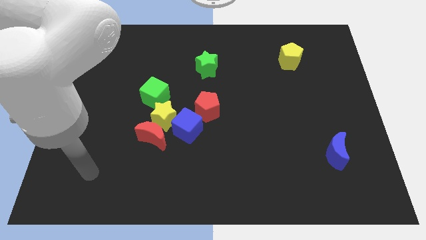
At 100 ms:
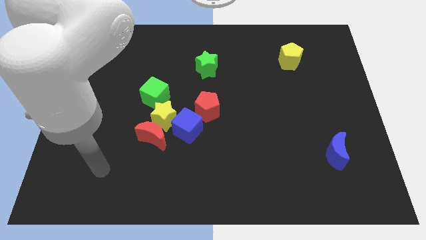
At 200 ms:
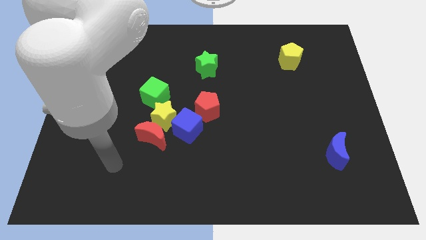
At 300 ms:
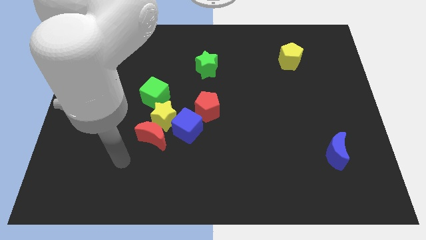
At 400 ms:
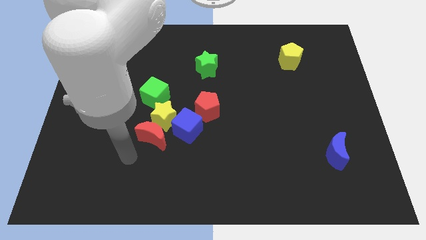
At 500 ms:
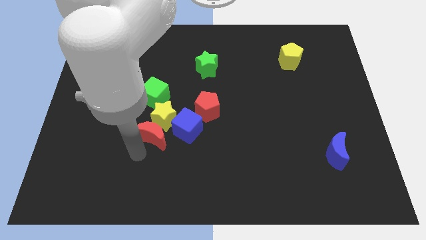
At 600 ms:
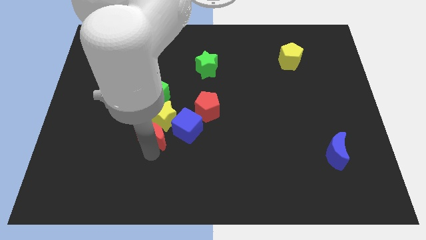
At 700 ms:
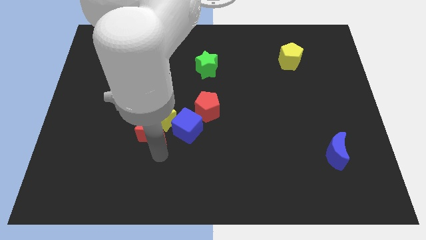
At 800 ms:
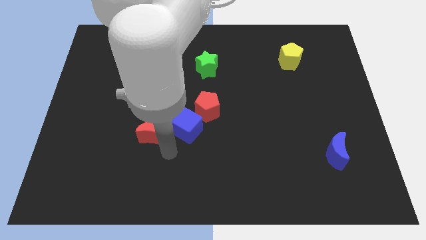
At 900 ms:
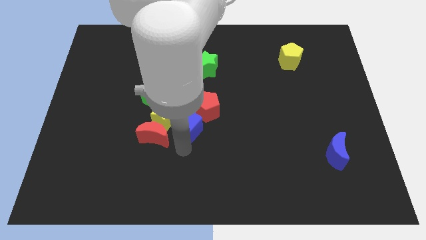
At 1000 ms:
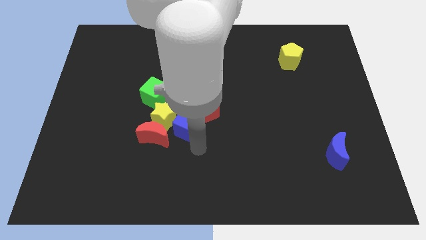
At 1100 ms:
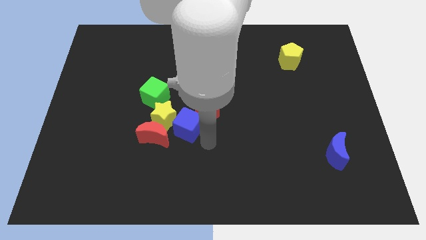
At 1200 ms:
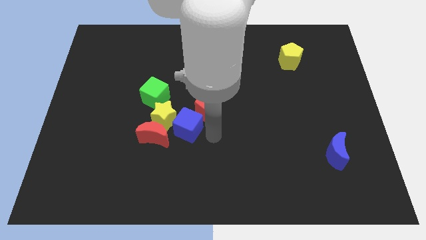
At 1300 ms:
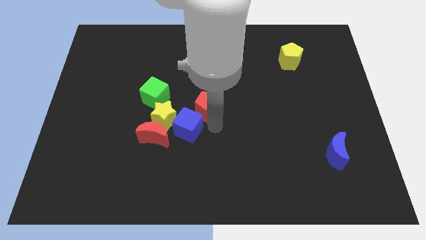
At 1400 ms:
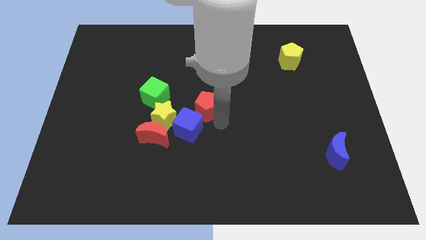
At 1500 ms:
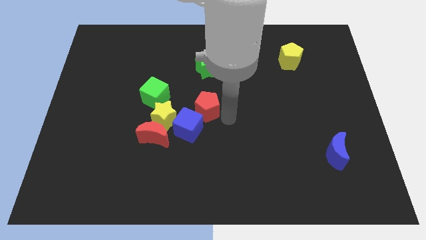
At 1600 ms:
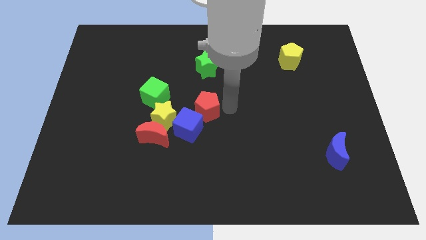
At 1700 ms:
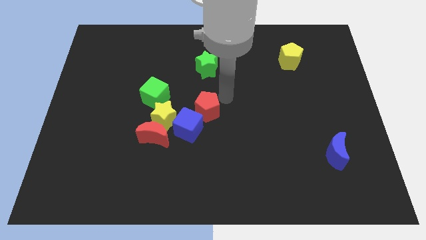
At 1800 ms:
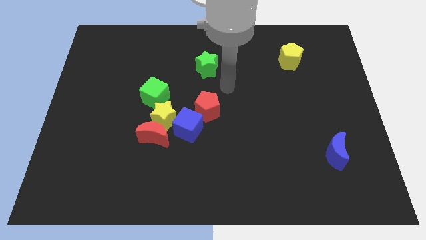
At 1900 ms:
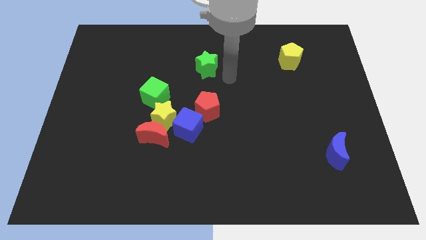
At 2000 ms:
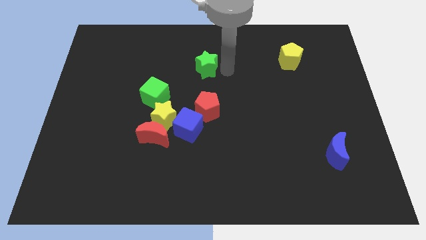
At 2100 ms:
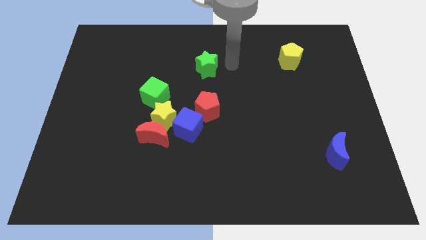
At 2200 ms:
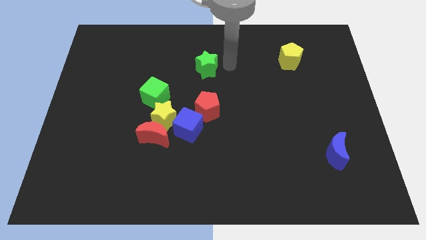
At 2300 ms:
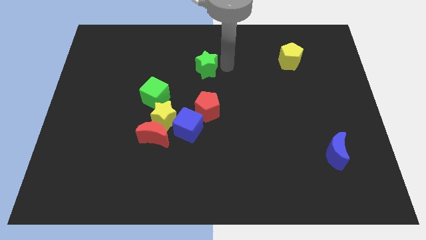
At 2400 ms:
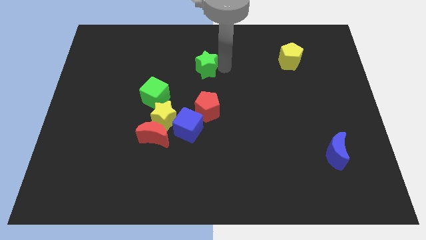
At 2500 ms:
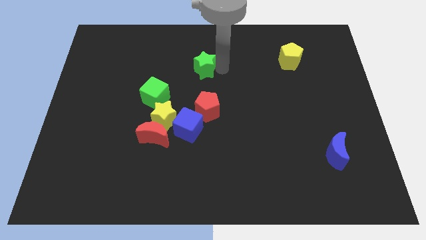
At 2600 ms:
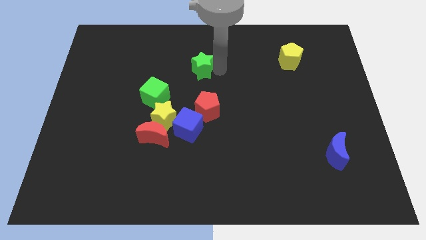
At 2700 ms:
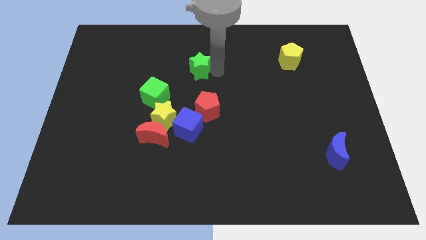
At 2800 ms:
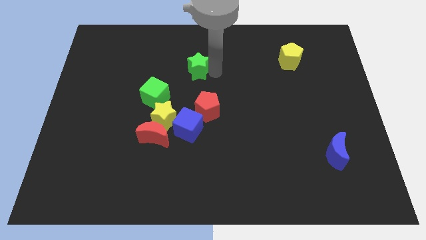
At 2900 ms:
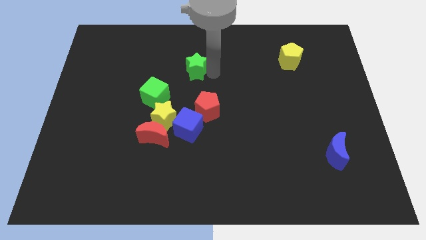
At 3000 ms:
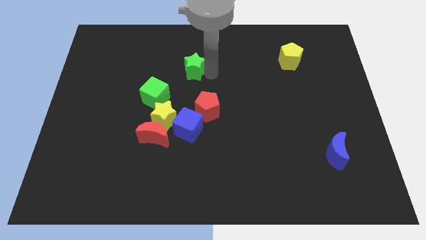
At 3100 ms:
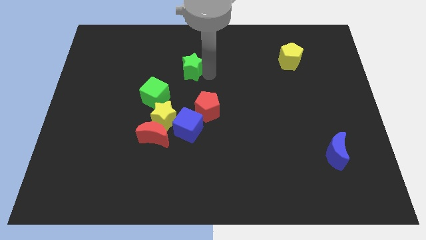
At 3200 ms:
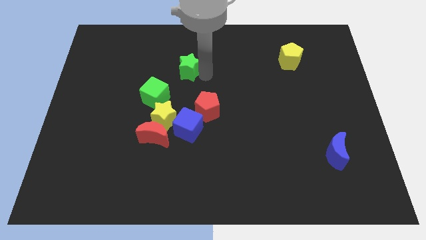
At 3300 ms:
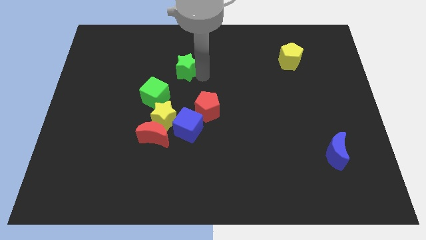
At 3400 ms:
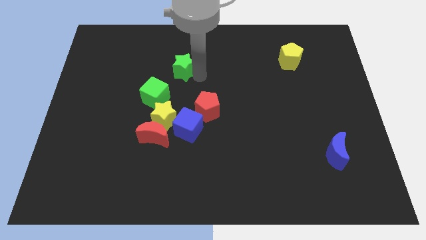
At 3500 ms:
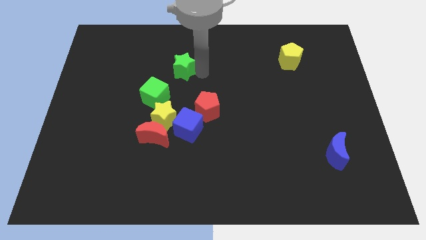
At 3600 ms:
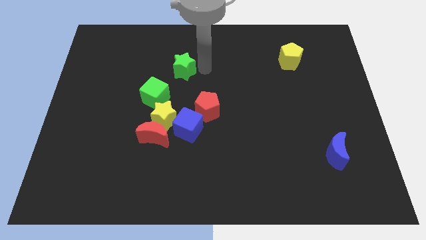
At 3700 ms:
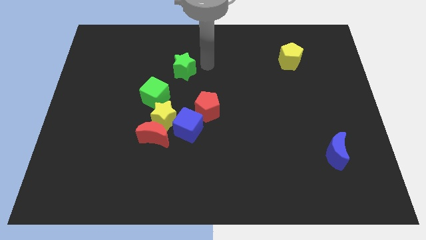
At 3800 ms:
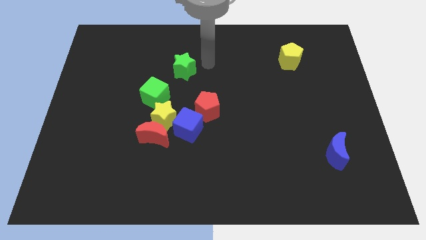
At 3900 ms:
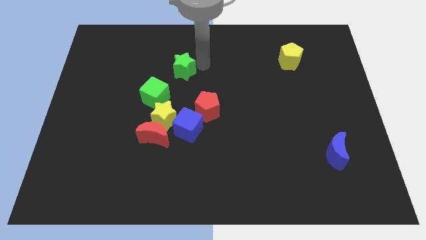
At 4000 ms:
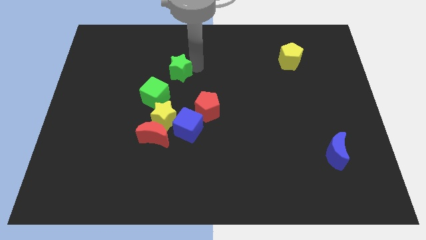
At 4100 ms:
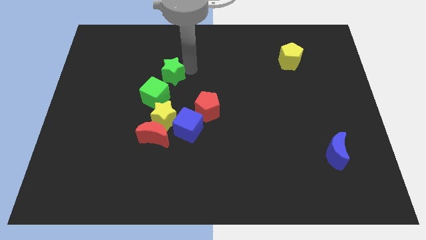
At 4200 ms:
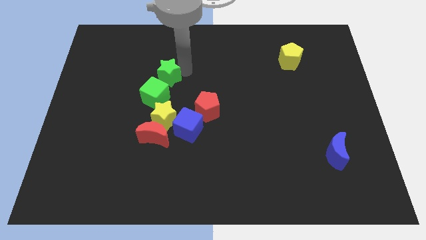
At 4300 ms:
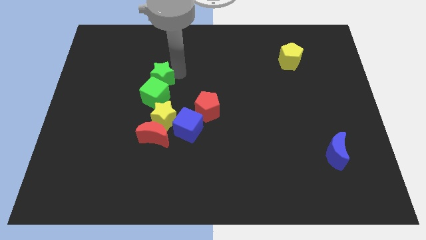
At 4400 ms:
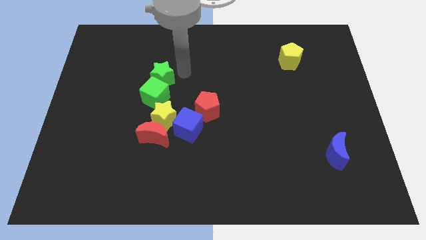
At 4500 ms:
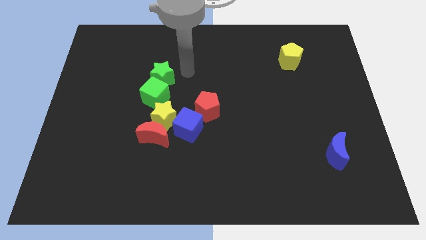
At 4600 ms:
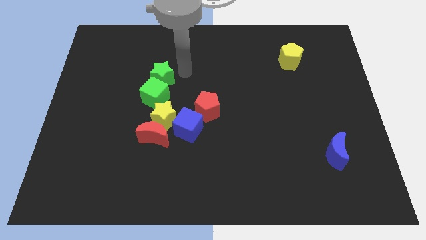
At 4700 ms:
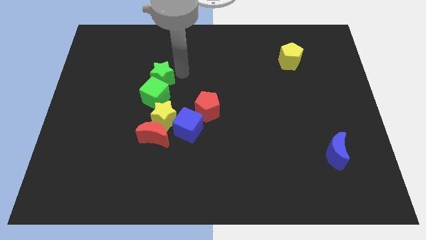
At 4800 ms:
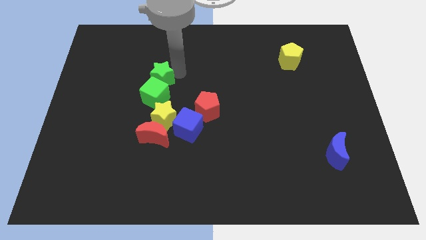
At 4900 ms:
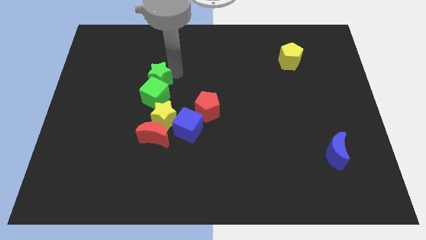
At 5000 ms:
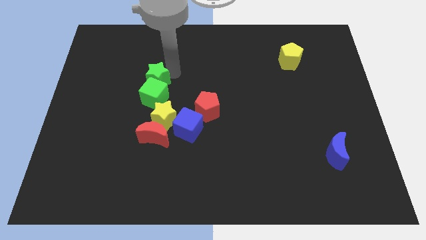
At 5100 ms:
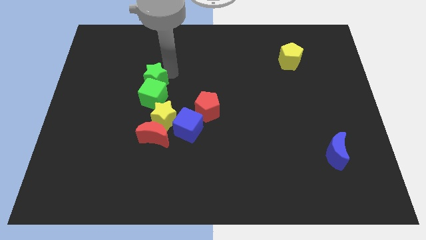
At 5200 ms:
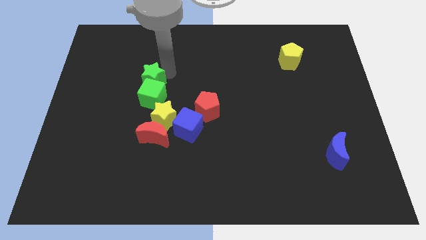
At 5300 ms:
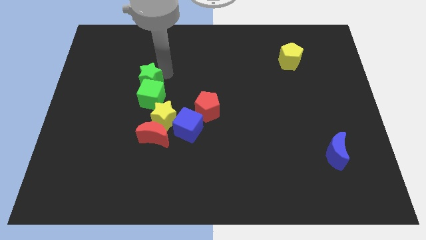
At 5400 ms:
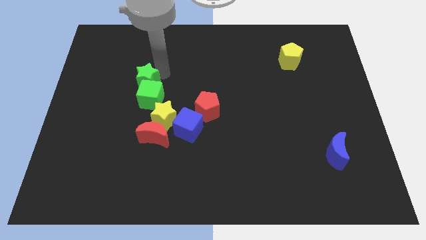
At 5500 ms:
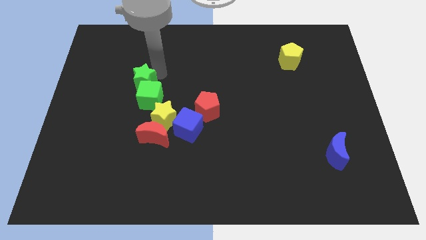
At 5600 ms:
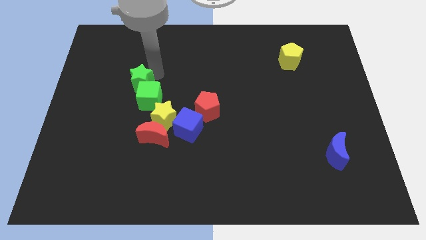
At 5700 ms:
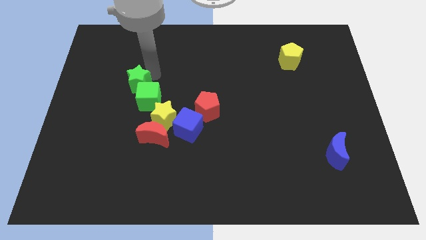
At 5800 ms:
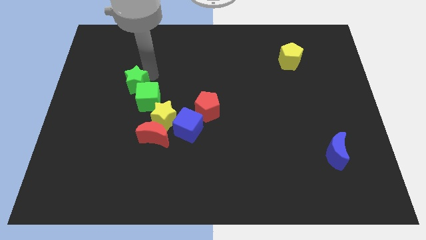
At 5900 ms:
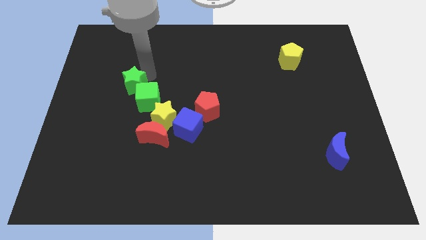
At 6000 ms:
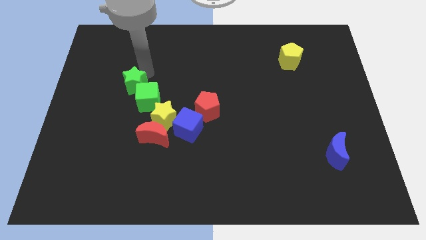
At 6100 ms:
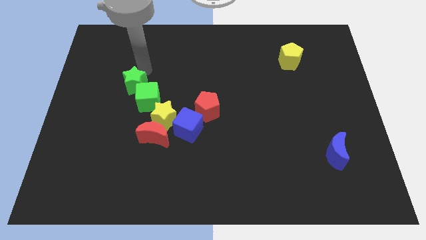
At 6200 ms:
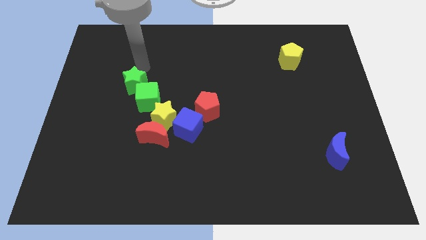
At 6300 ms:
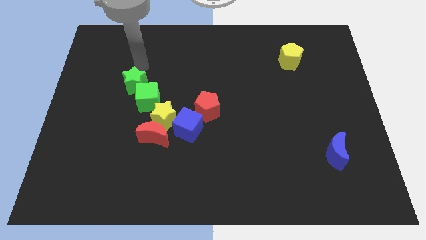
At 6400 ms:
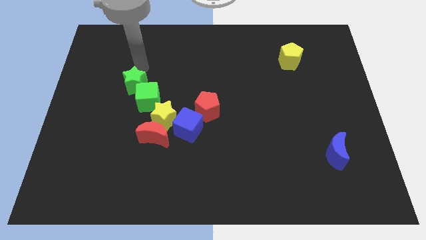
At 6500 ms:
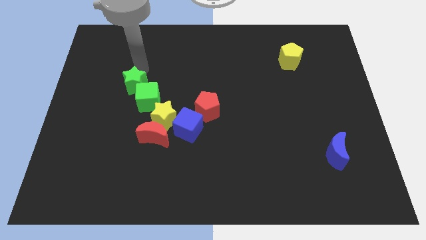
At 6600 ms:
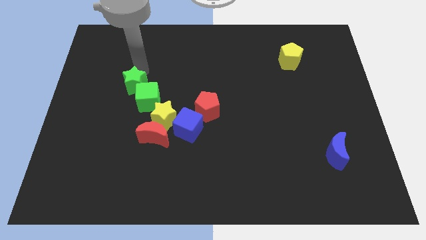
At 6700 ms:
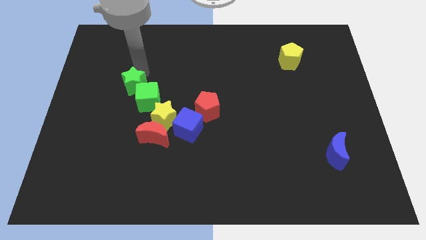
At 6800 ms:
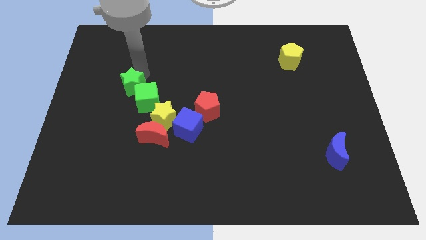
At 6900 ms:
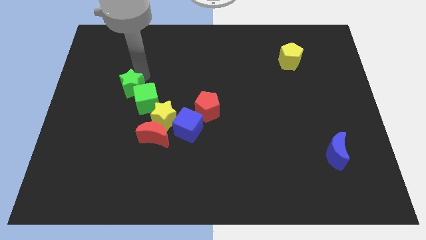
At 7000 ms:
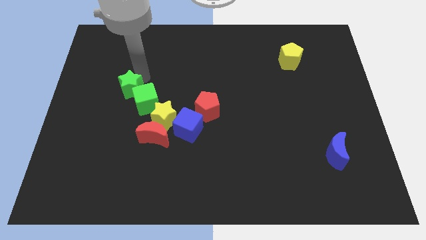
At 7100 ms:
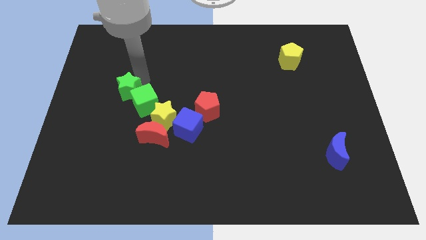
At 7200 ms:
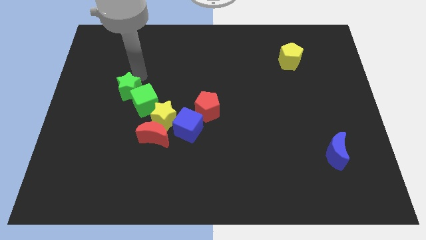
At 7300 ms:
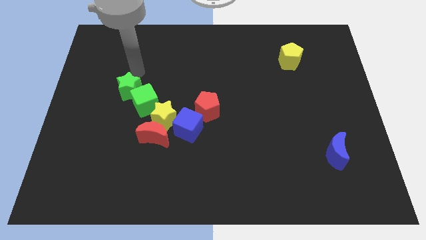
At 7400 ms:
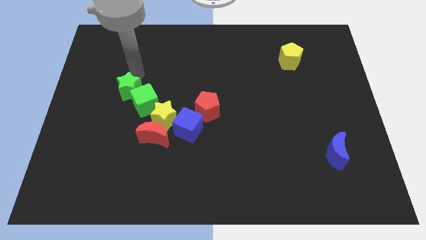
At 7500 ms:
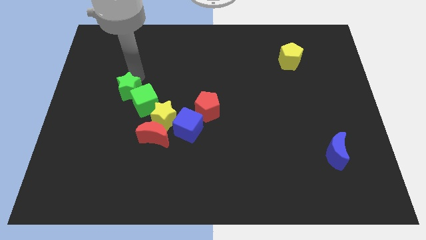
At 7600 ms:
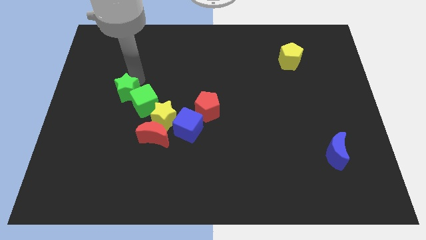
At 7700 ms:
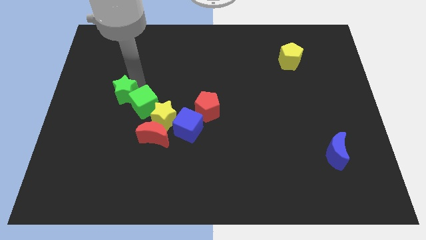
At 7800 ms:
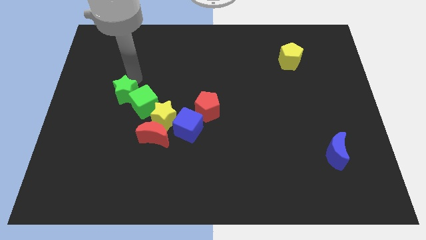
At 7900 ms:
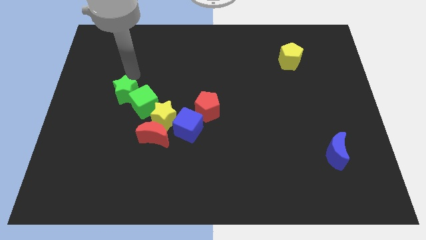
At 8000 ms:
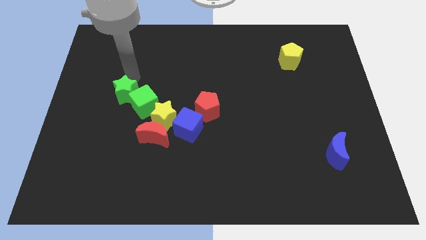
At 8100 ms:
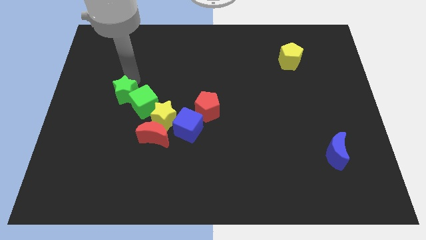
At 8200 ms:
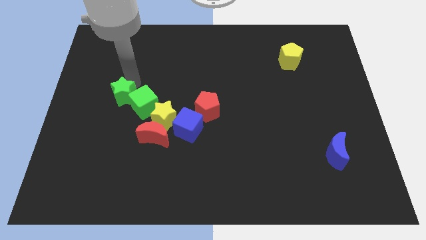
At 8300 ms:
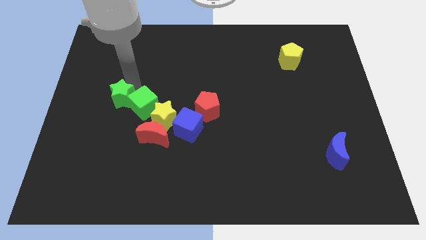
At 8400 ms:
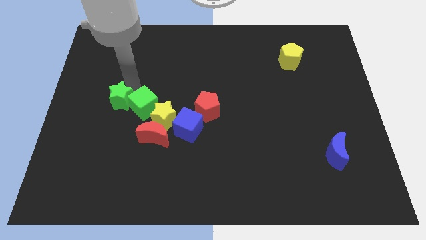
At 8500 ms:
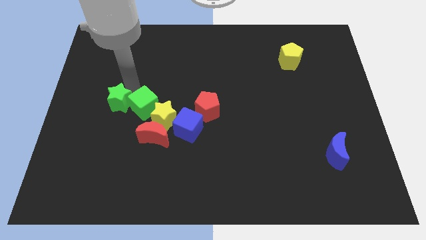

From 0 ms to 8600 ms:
push the green star to the bottom left side of the green cube
